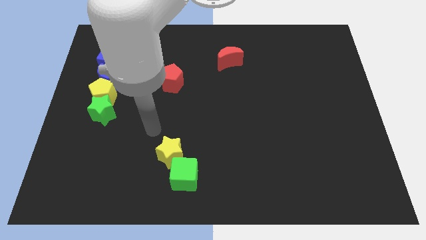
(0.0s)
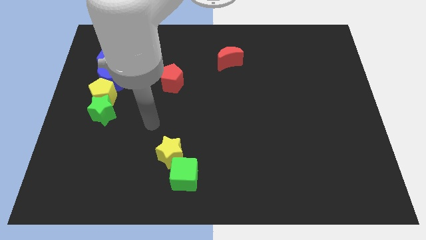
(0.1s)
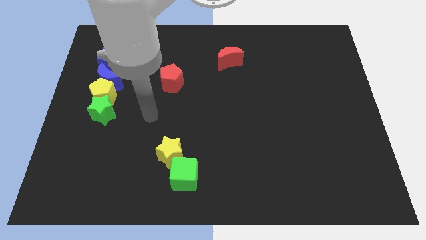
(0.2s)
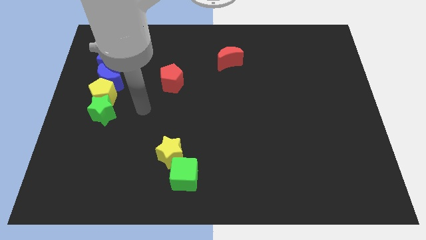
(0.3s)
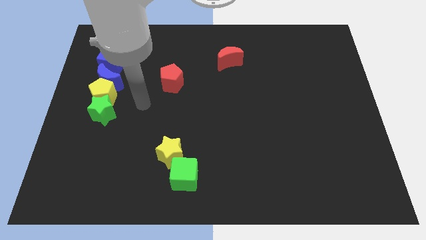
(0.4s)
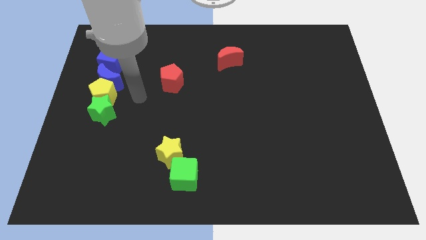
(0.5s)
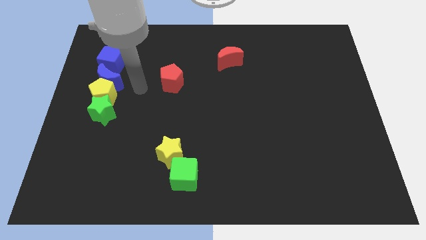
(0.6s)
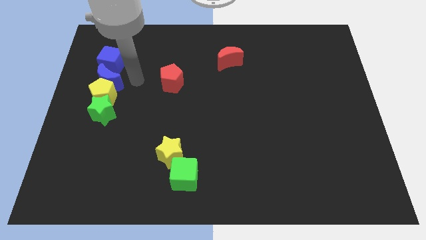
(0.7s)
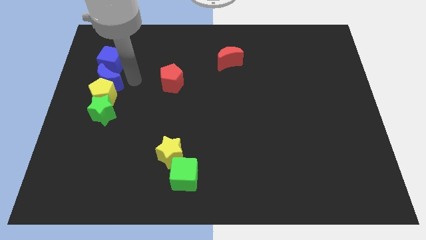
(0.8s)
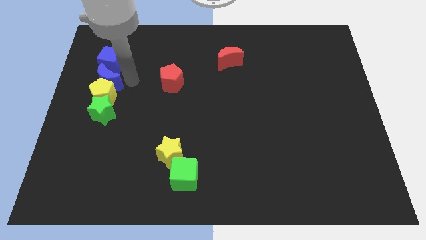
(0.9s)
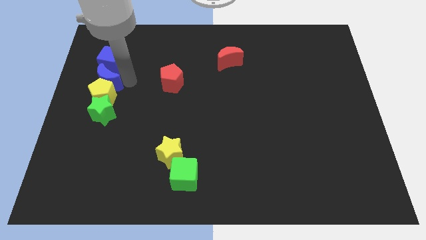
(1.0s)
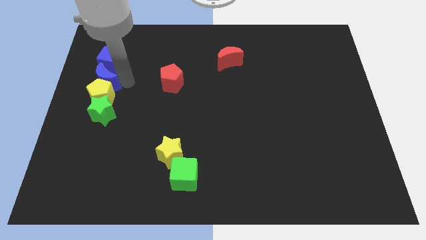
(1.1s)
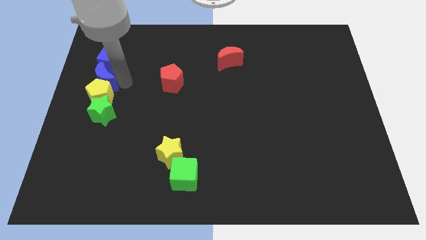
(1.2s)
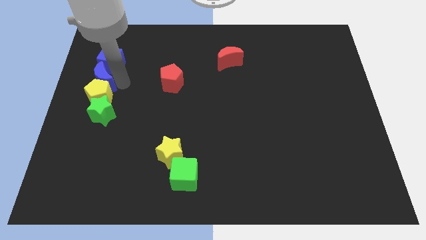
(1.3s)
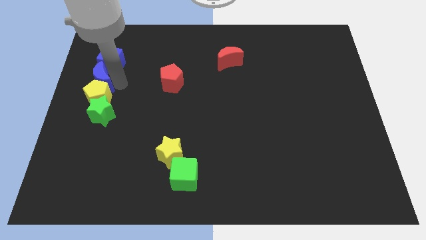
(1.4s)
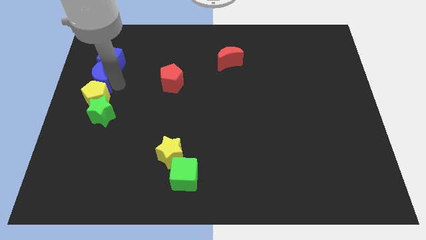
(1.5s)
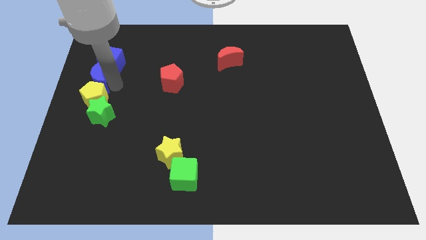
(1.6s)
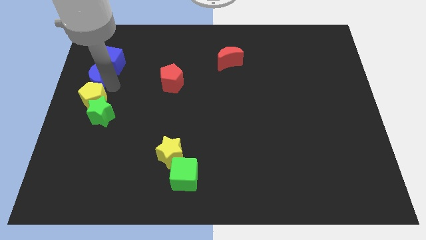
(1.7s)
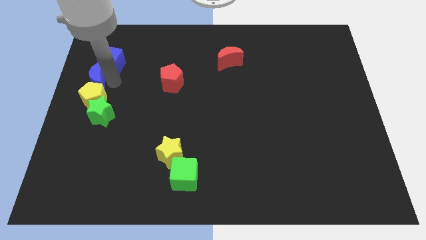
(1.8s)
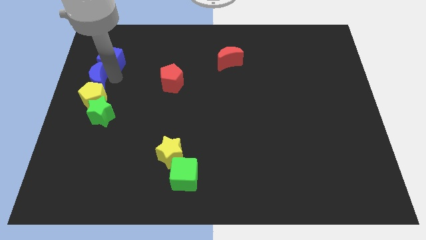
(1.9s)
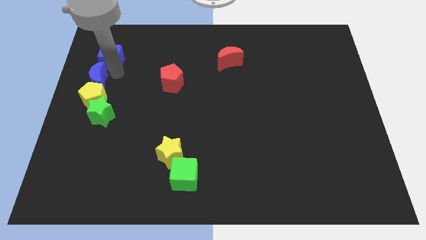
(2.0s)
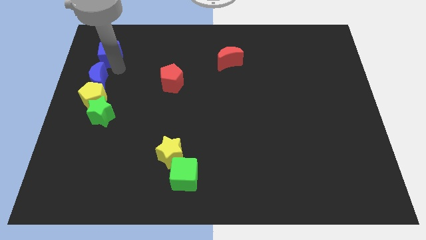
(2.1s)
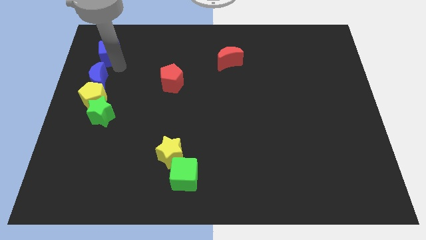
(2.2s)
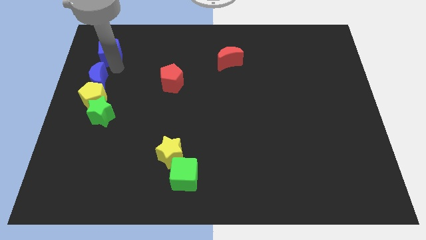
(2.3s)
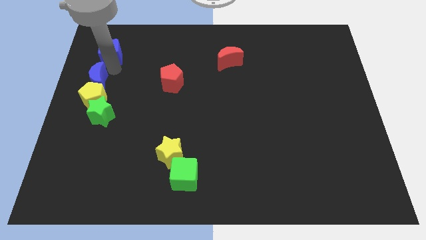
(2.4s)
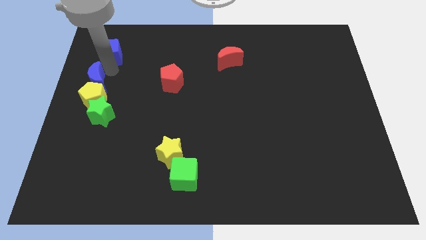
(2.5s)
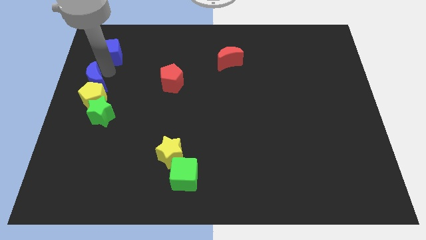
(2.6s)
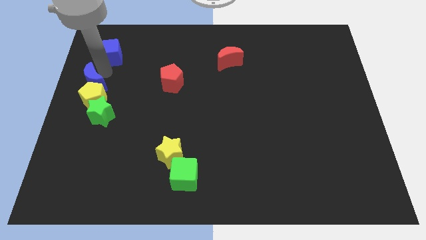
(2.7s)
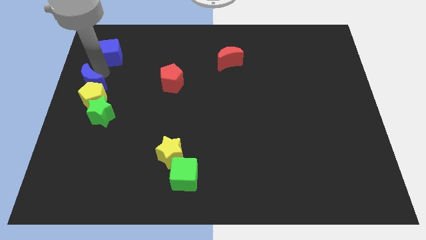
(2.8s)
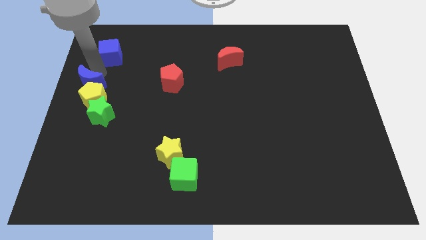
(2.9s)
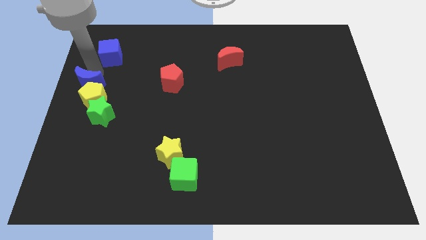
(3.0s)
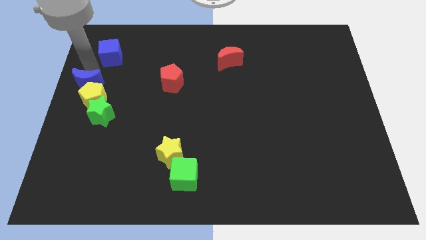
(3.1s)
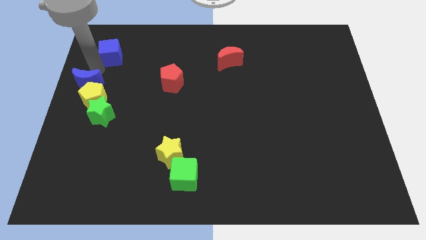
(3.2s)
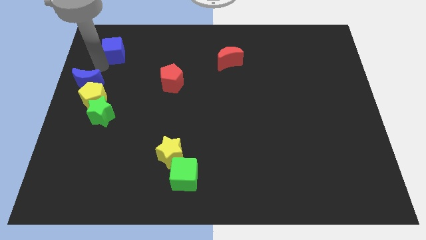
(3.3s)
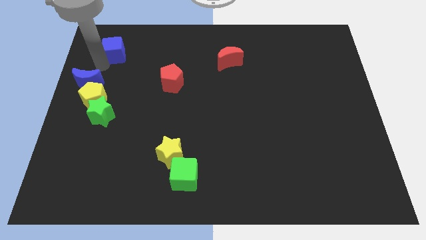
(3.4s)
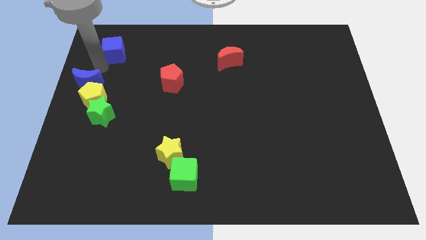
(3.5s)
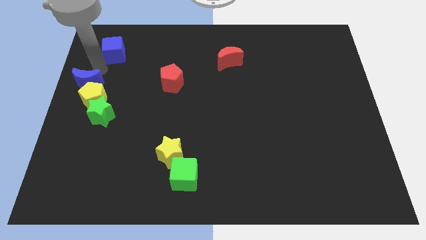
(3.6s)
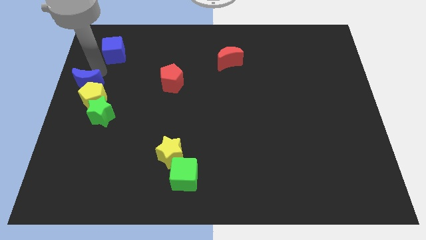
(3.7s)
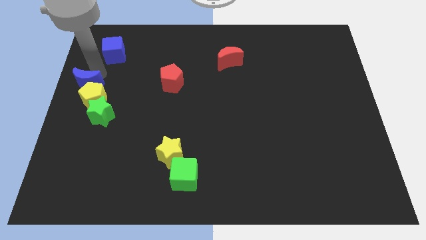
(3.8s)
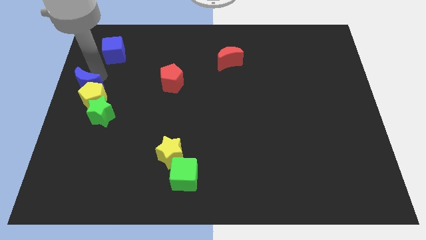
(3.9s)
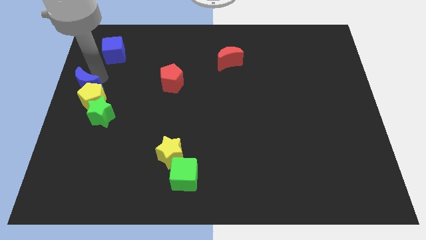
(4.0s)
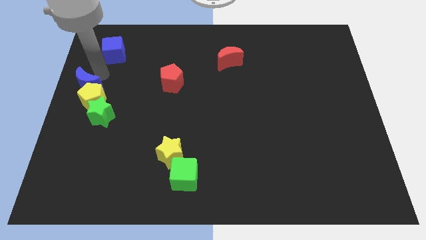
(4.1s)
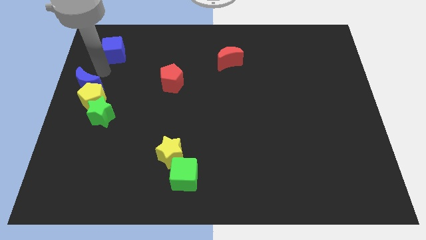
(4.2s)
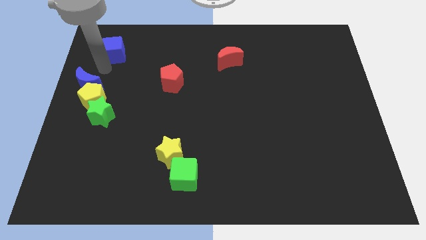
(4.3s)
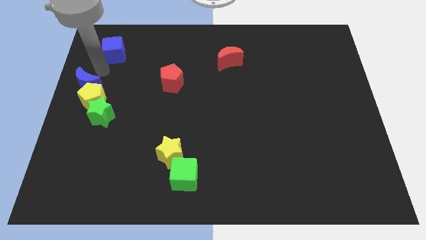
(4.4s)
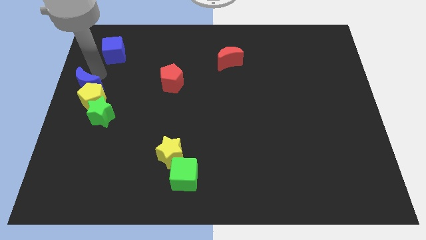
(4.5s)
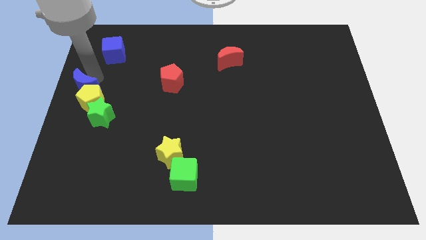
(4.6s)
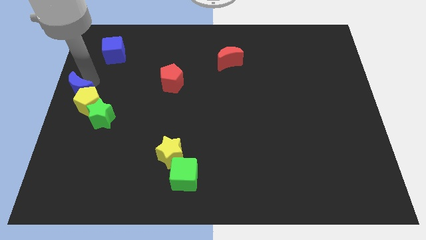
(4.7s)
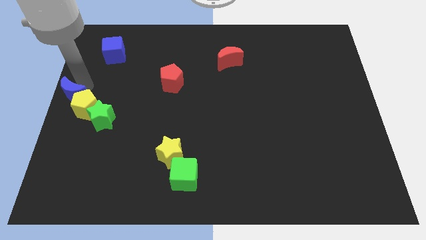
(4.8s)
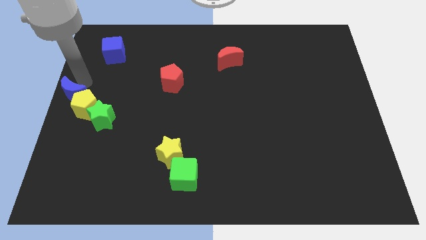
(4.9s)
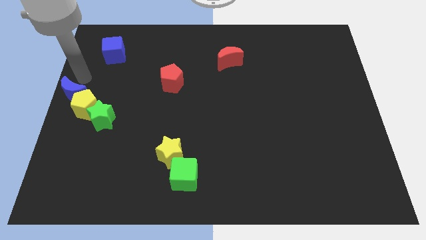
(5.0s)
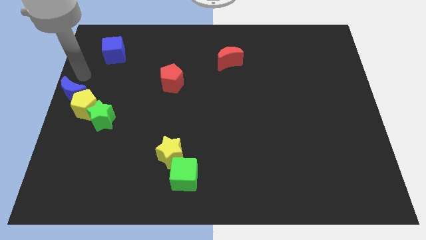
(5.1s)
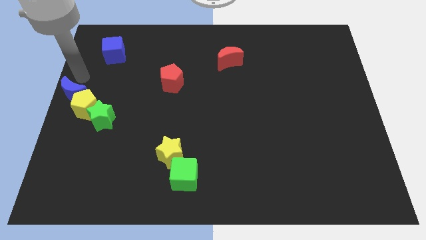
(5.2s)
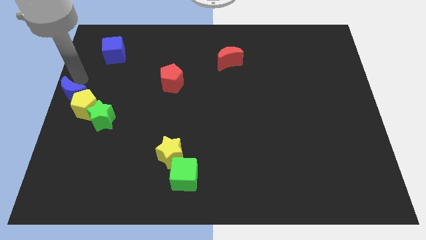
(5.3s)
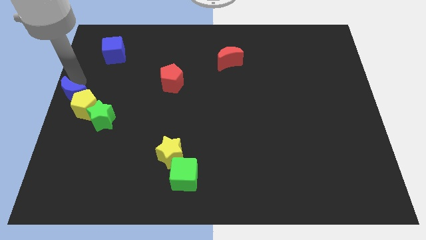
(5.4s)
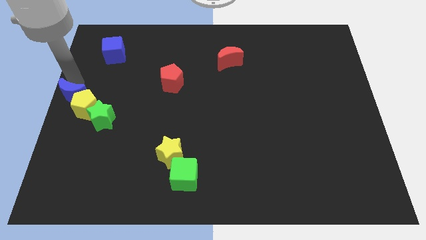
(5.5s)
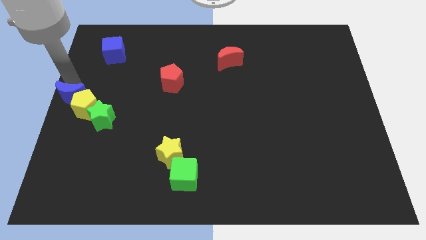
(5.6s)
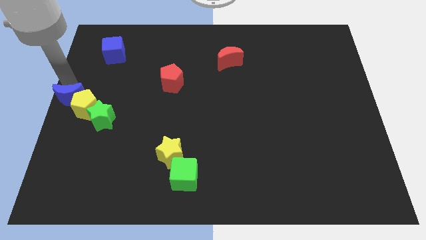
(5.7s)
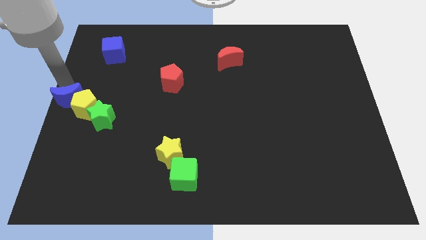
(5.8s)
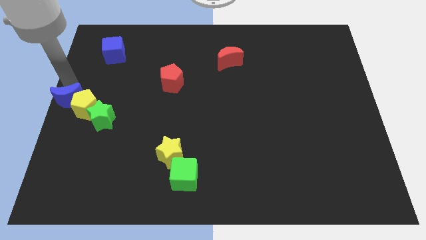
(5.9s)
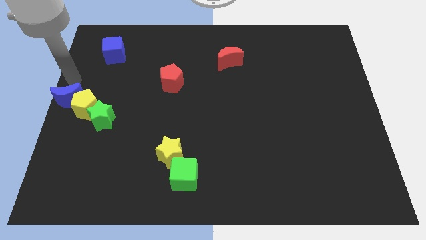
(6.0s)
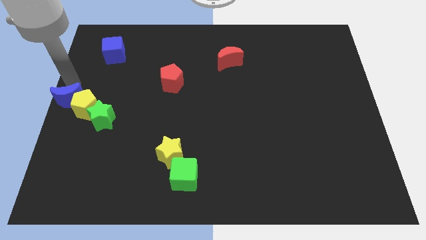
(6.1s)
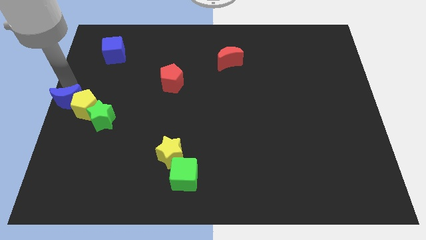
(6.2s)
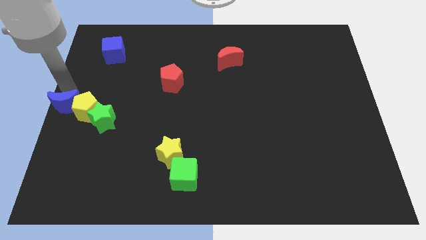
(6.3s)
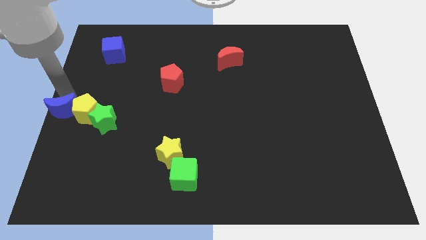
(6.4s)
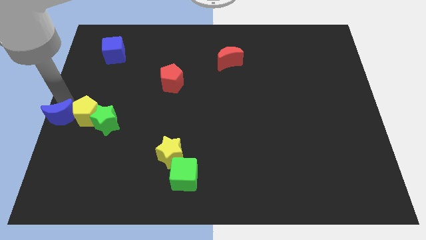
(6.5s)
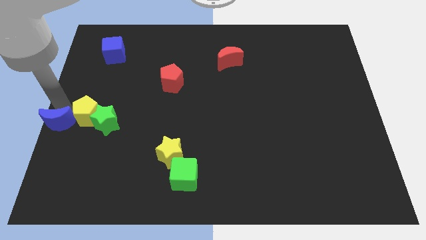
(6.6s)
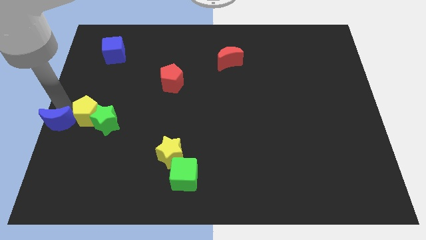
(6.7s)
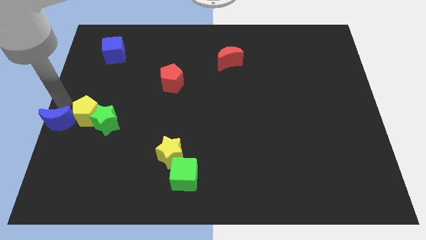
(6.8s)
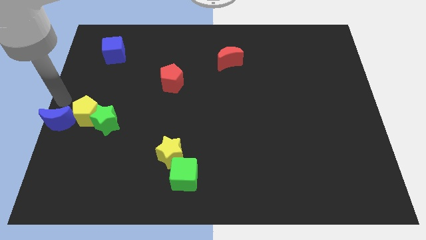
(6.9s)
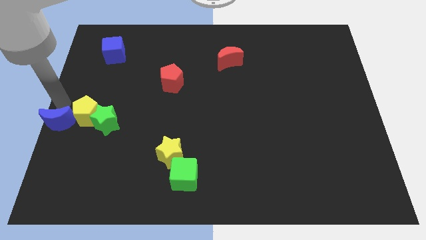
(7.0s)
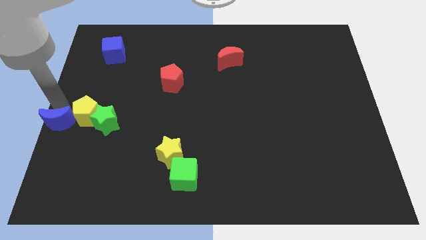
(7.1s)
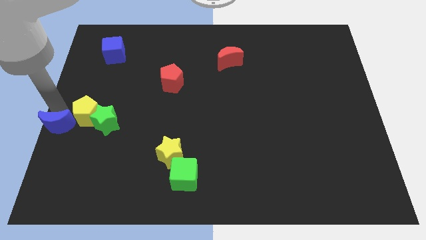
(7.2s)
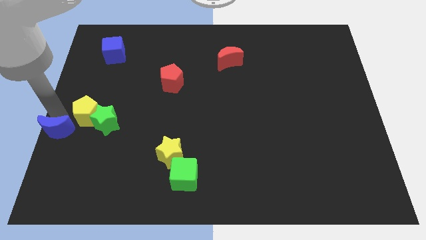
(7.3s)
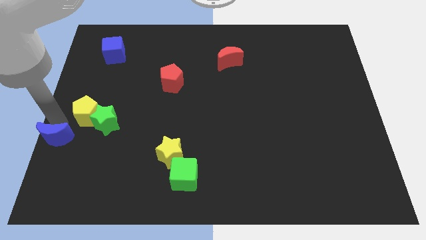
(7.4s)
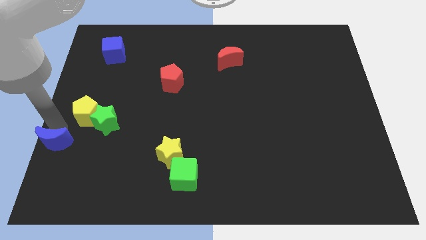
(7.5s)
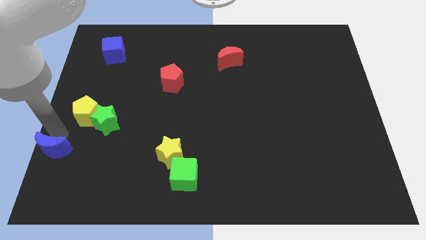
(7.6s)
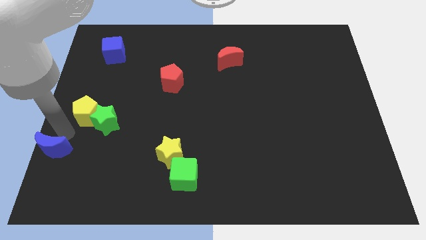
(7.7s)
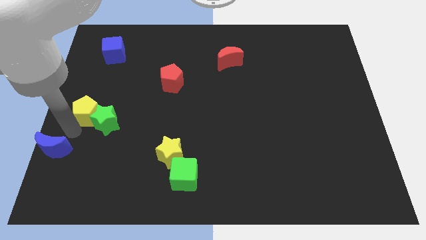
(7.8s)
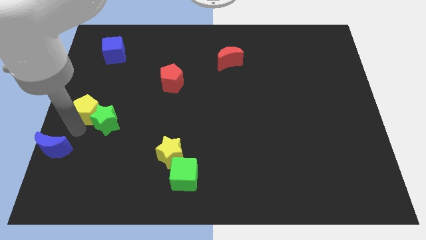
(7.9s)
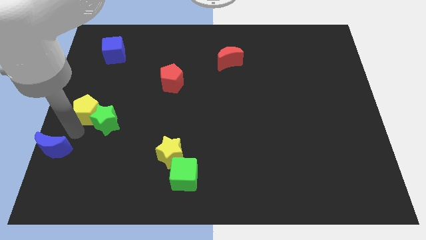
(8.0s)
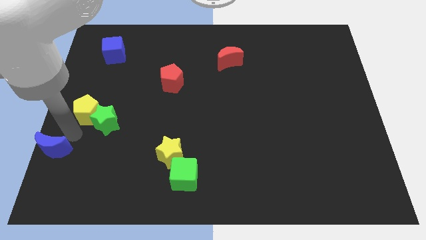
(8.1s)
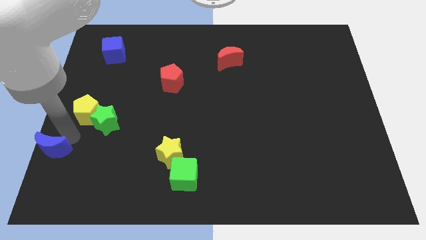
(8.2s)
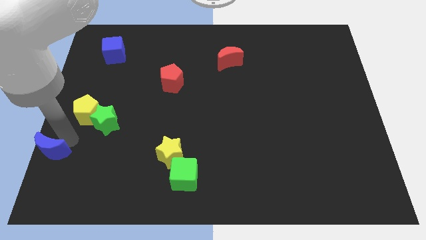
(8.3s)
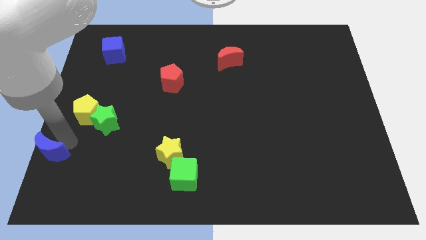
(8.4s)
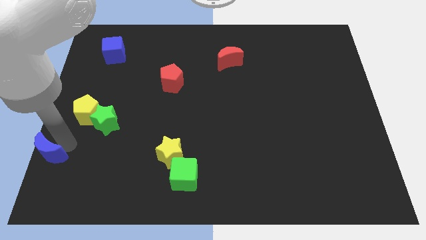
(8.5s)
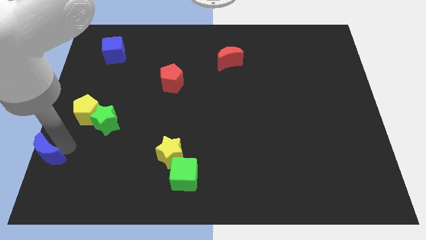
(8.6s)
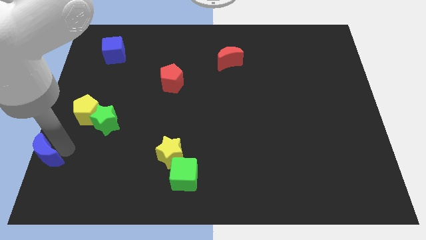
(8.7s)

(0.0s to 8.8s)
push the blue moon to the lower left corner
